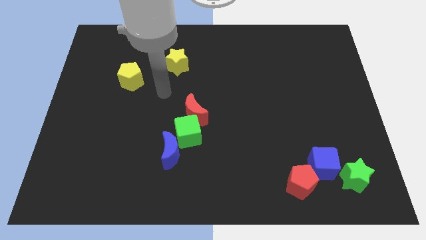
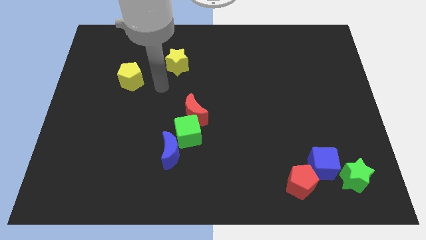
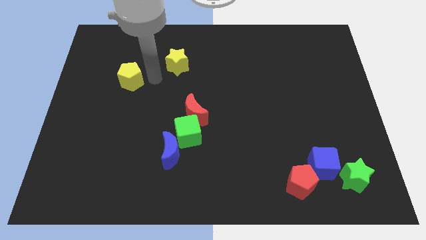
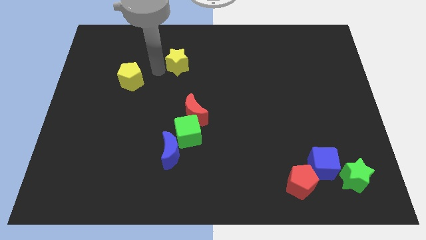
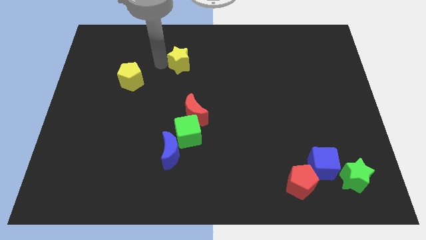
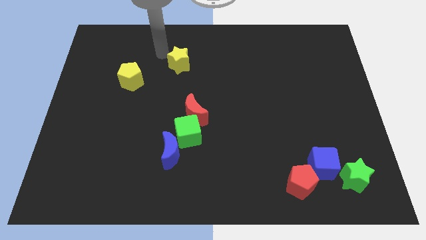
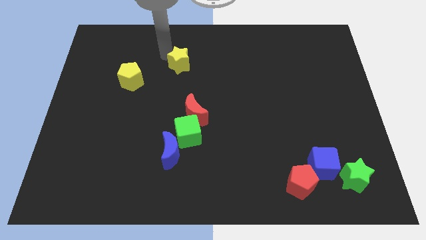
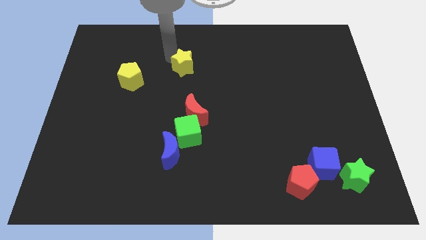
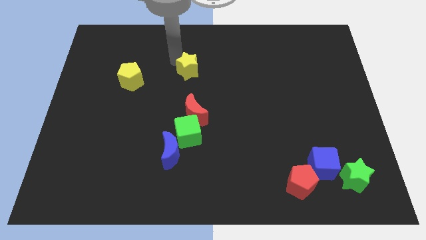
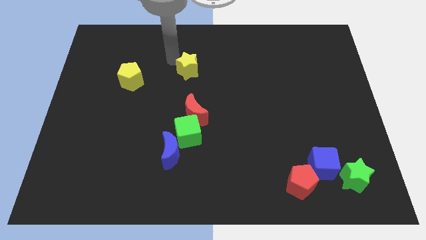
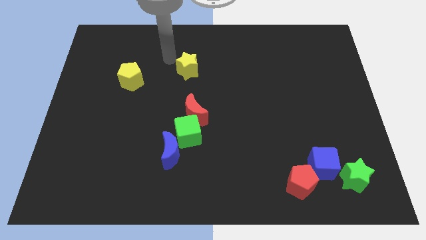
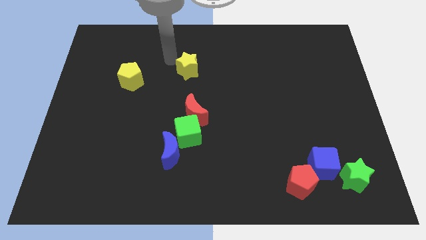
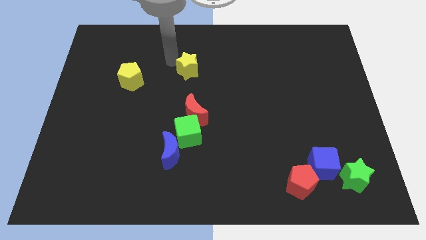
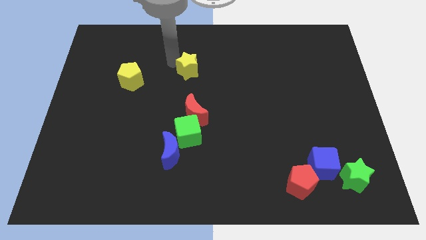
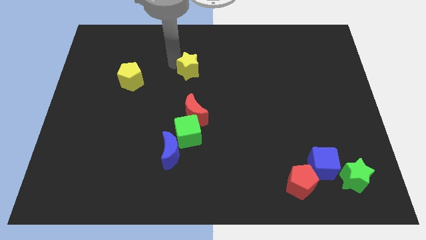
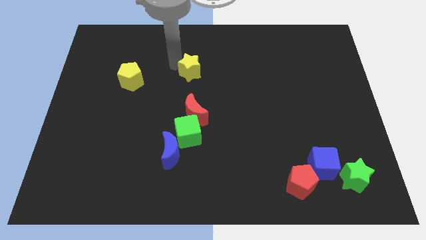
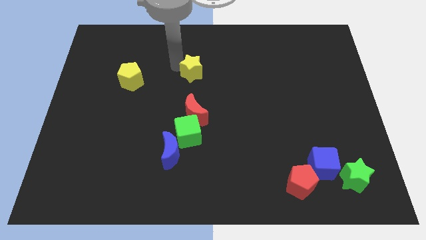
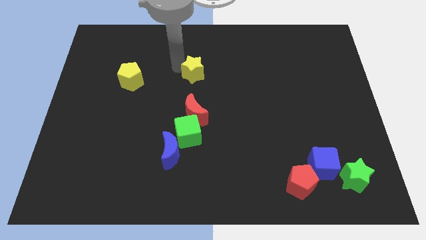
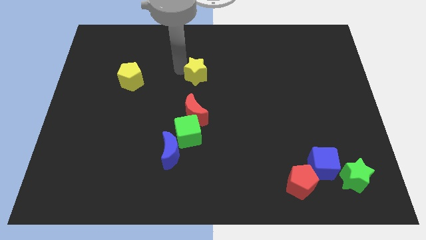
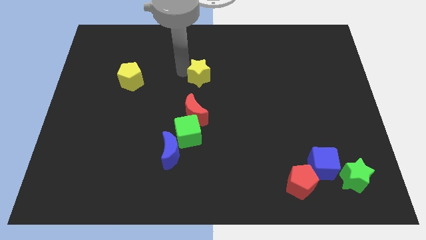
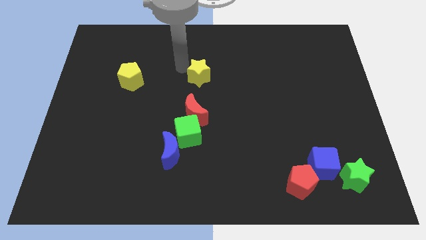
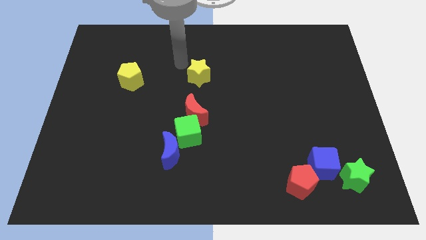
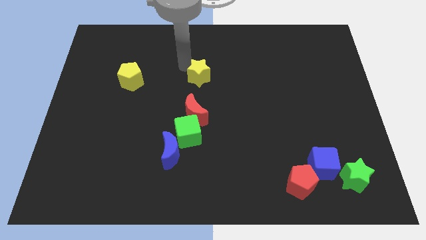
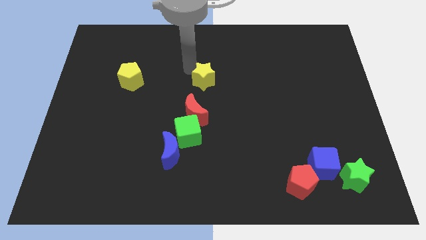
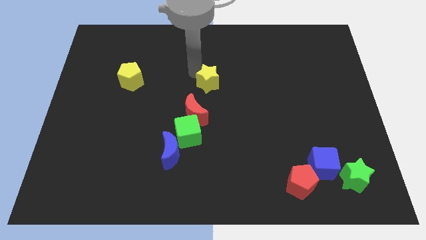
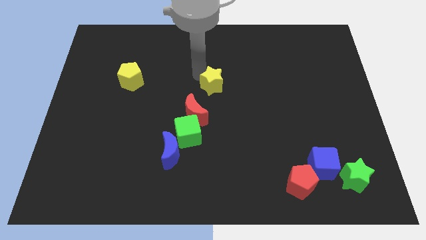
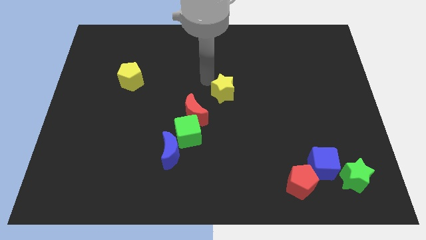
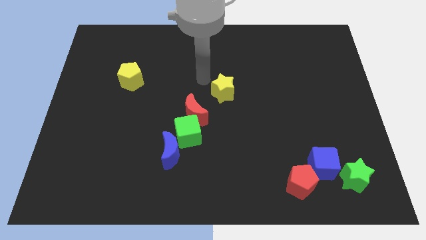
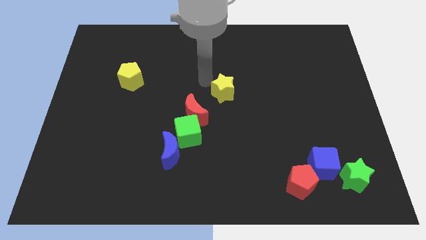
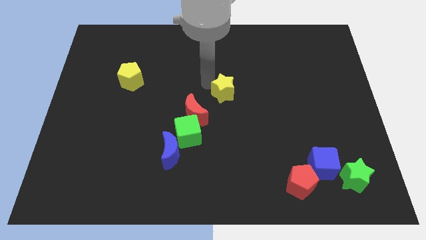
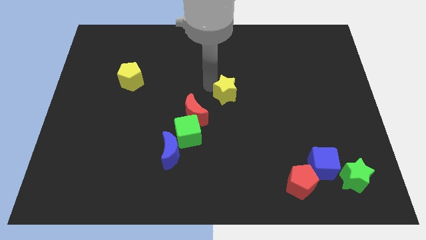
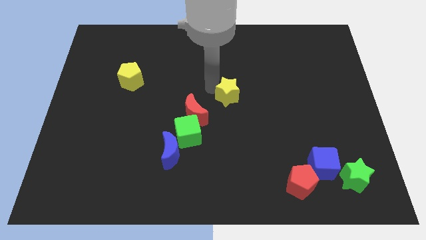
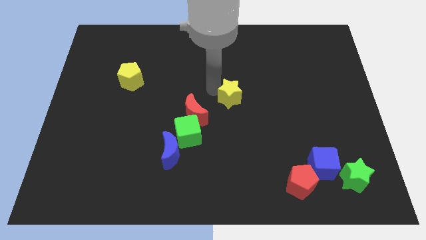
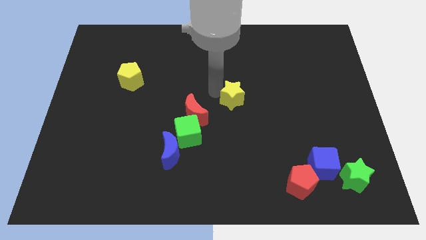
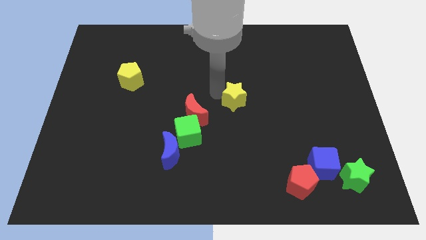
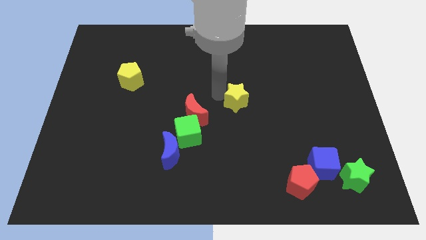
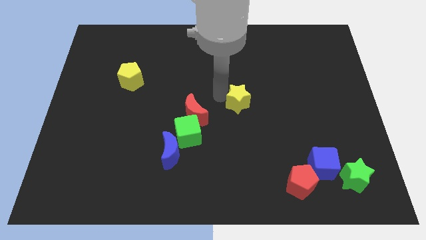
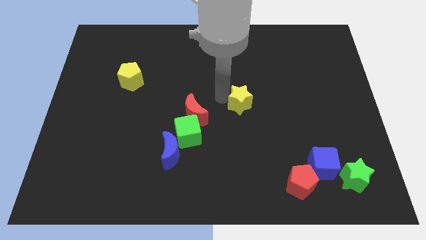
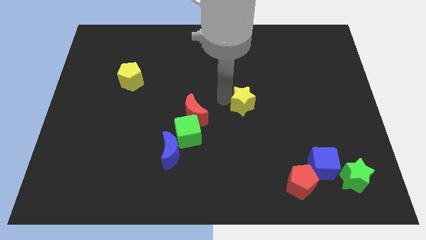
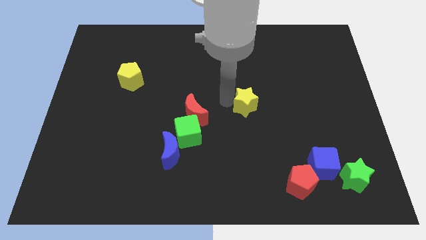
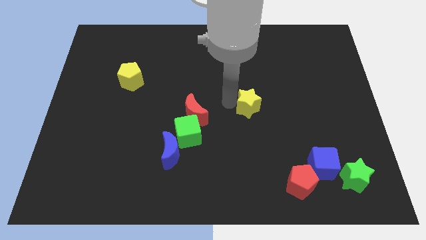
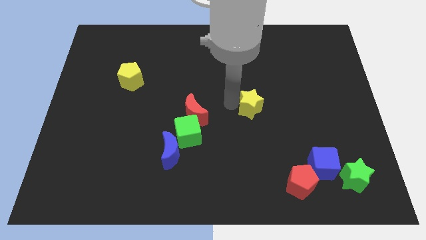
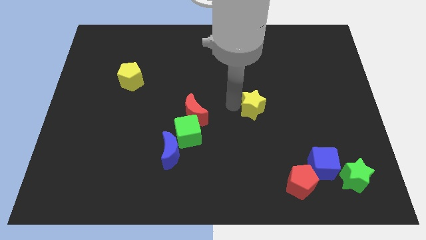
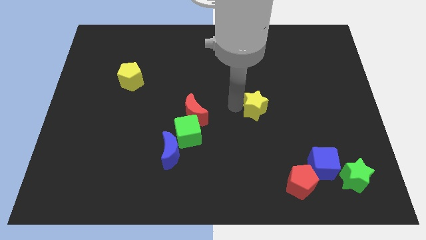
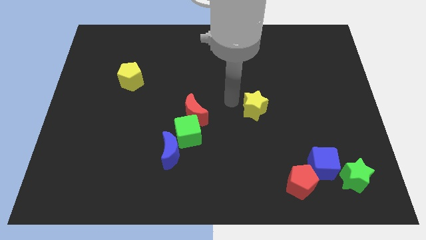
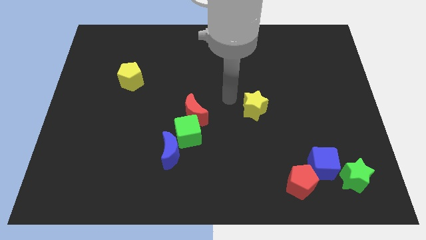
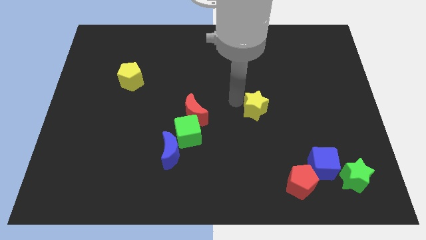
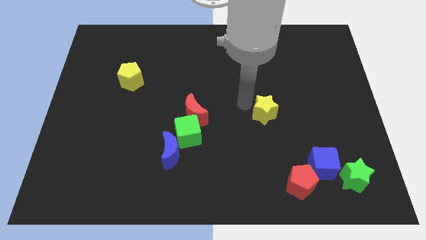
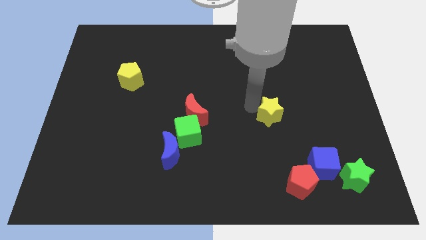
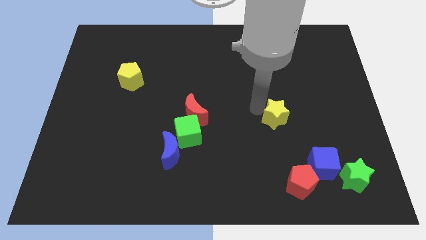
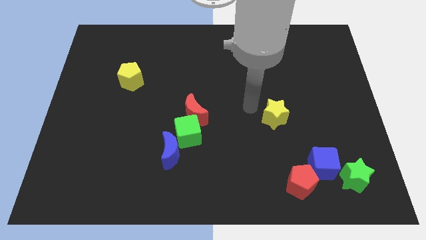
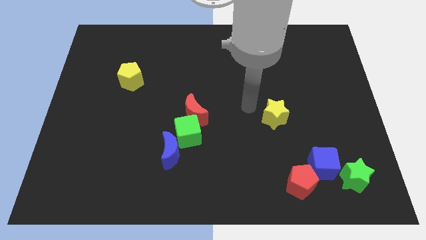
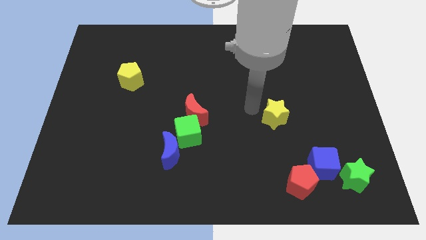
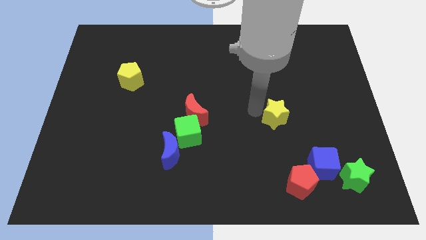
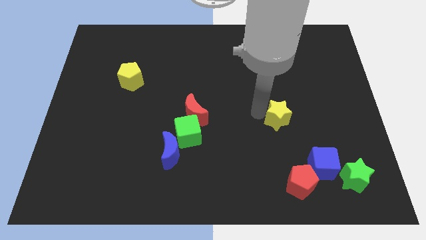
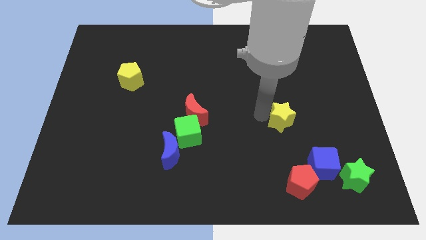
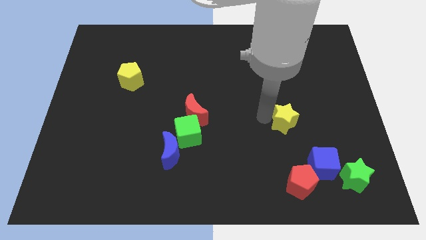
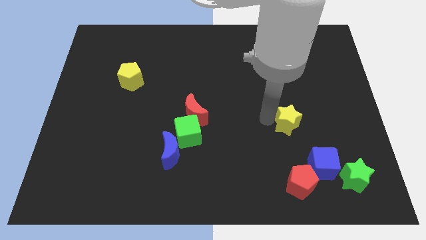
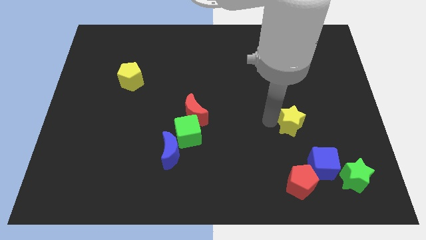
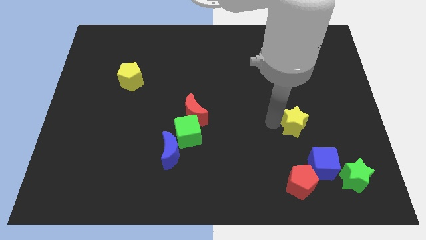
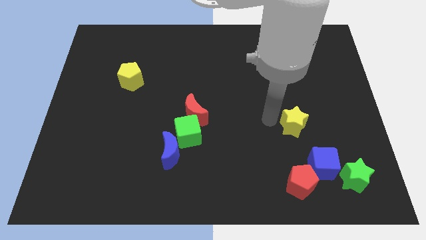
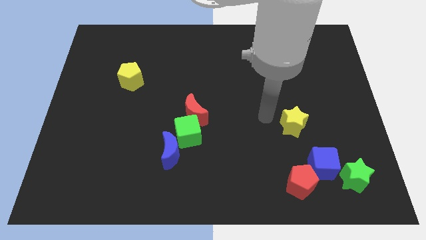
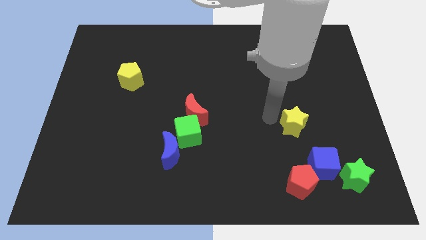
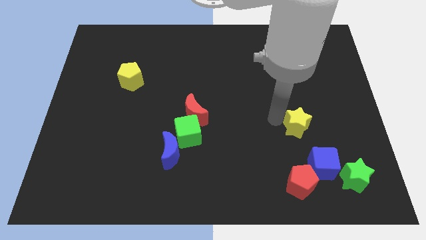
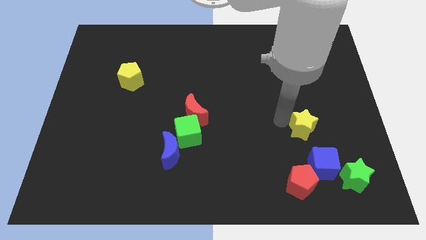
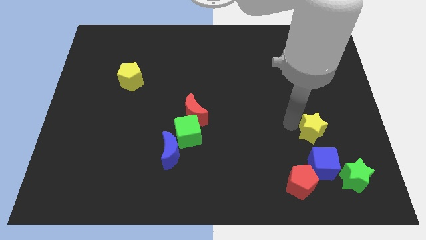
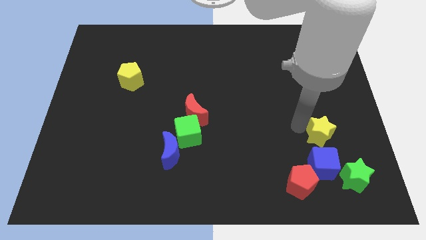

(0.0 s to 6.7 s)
move the yellow star to the top of the green star
